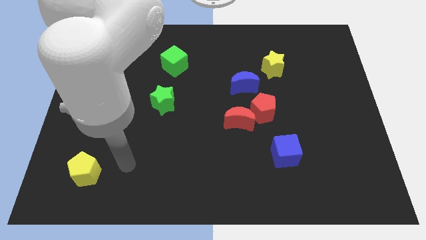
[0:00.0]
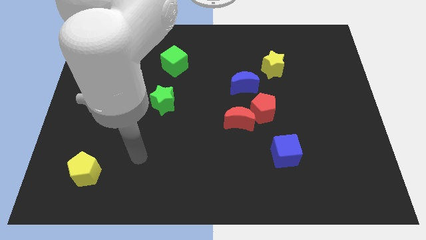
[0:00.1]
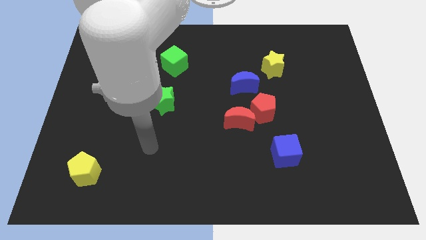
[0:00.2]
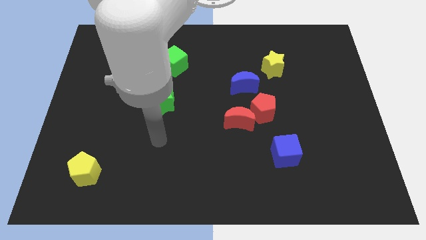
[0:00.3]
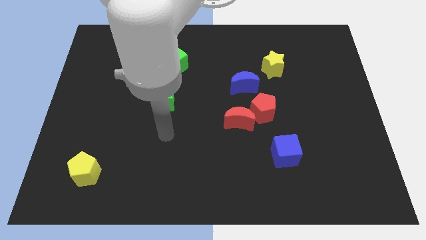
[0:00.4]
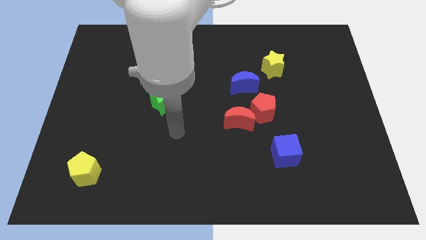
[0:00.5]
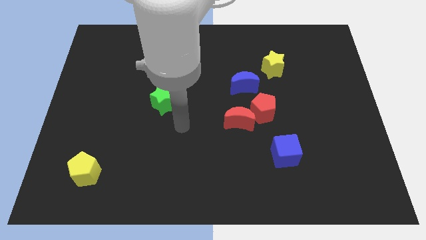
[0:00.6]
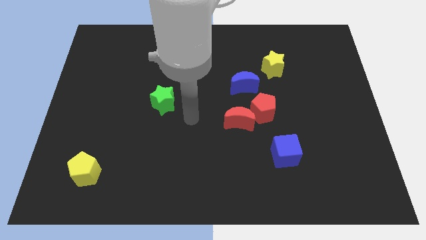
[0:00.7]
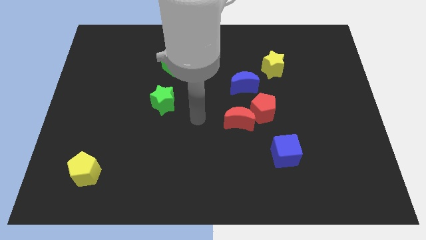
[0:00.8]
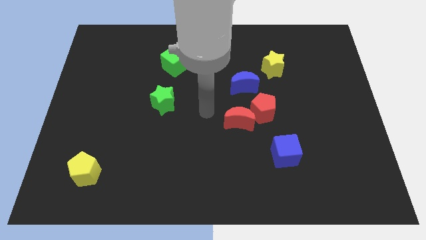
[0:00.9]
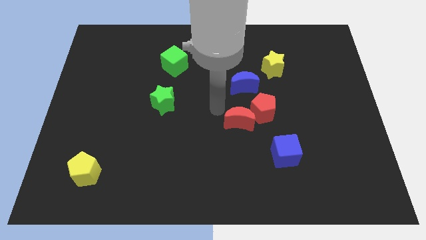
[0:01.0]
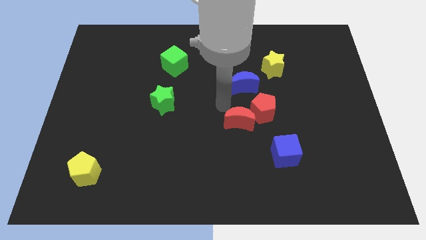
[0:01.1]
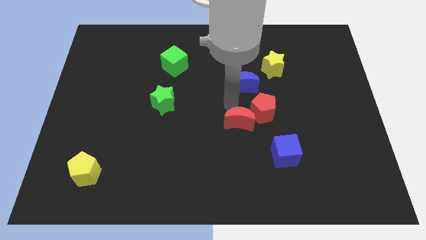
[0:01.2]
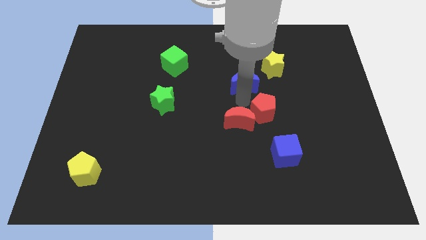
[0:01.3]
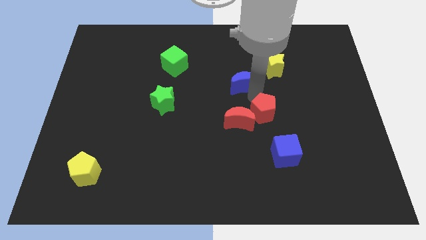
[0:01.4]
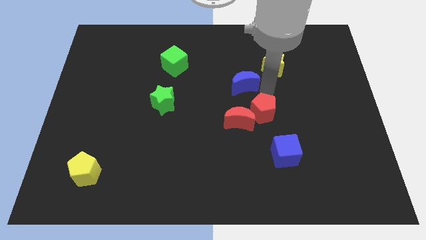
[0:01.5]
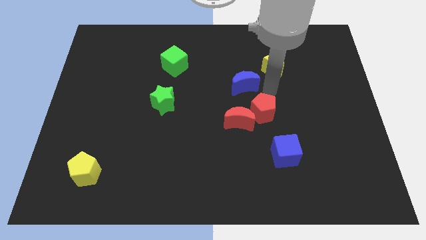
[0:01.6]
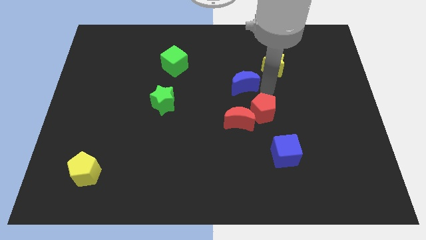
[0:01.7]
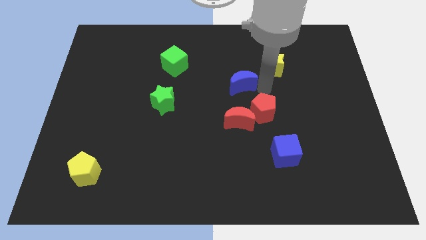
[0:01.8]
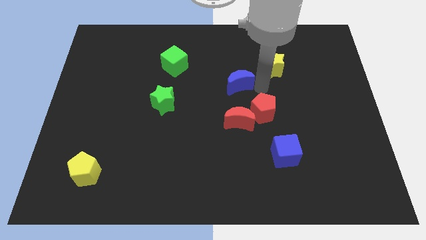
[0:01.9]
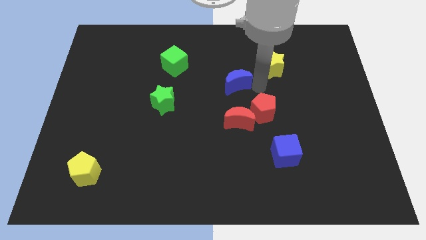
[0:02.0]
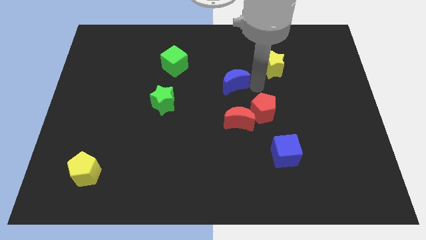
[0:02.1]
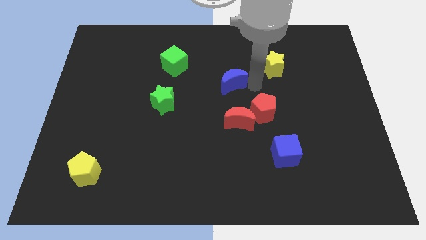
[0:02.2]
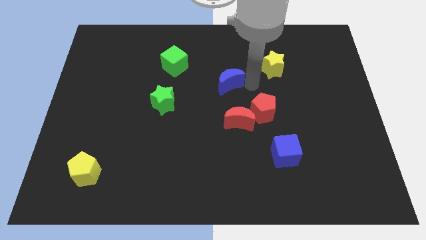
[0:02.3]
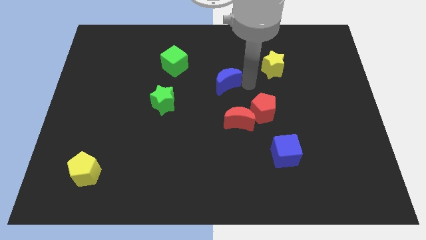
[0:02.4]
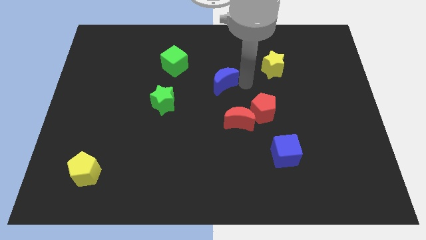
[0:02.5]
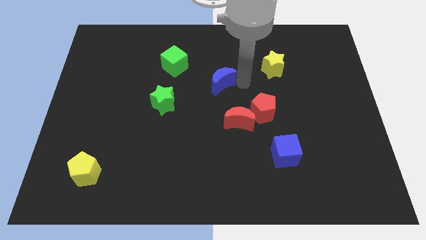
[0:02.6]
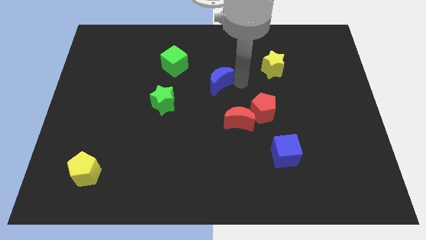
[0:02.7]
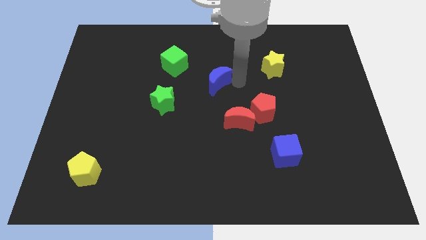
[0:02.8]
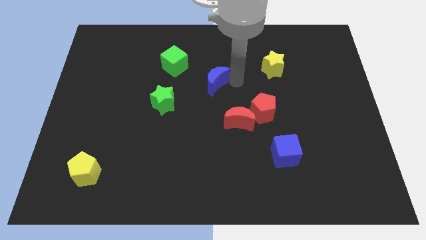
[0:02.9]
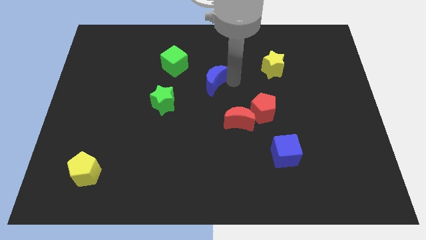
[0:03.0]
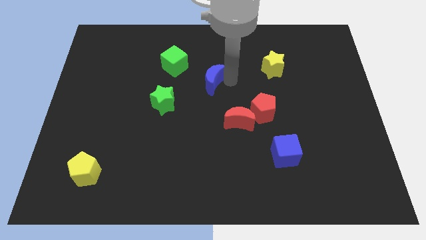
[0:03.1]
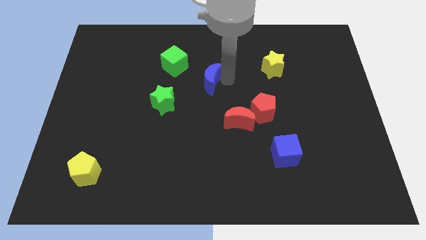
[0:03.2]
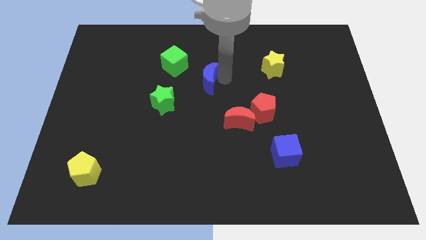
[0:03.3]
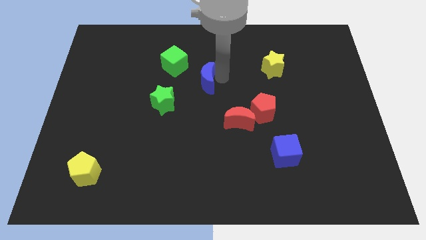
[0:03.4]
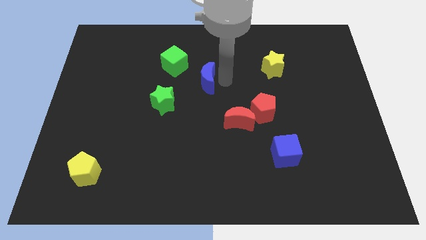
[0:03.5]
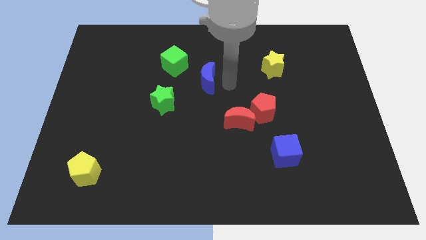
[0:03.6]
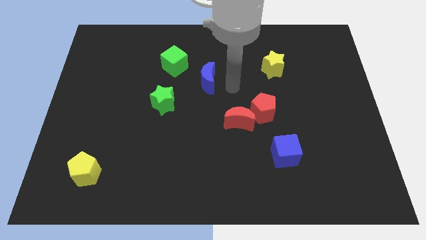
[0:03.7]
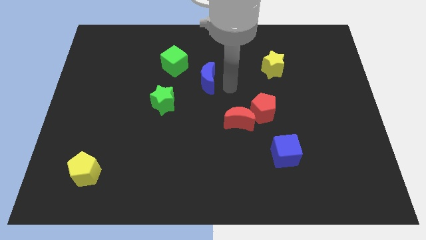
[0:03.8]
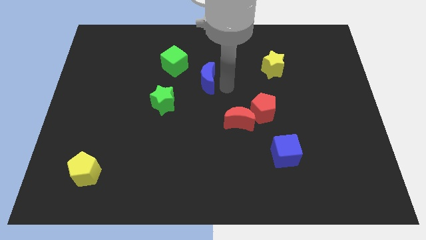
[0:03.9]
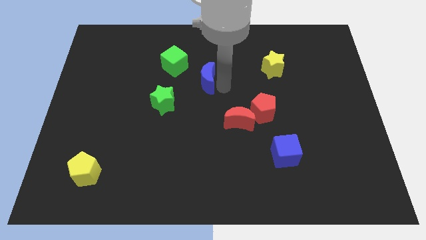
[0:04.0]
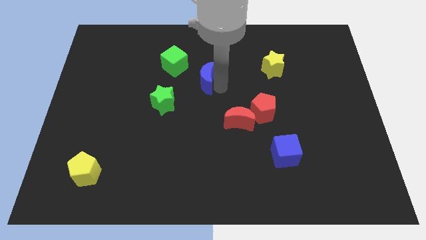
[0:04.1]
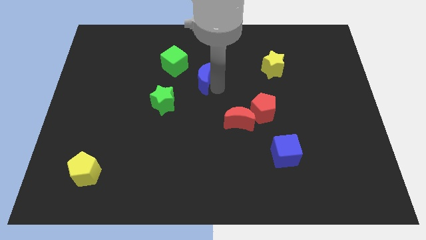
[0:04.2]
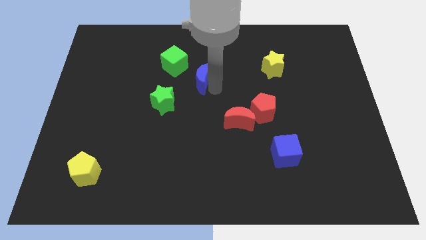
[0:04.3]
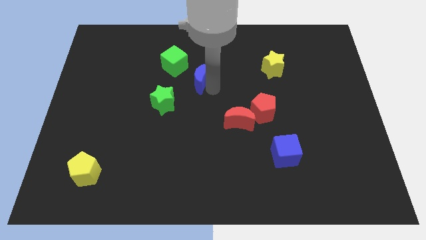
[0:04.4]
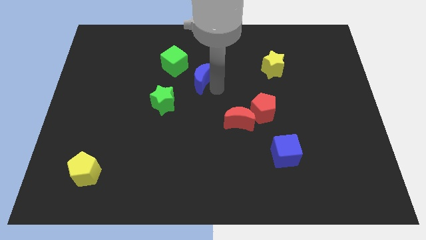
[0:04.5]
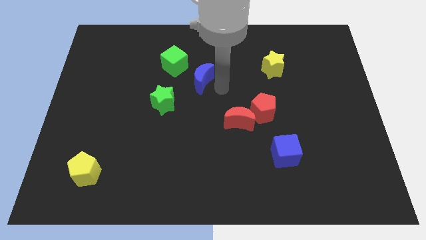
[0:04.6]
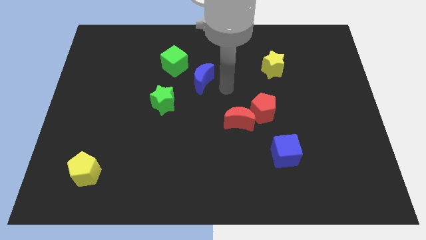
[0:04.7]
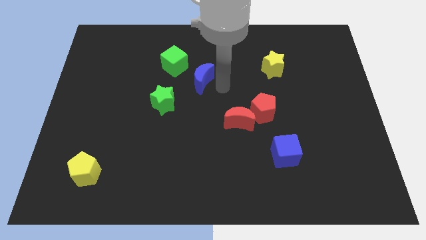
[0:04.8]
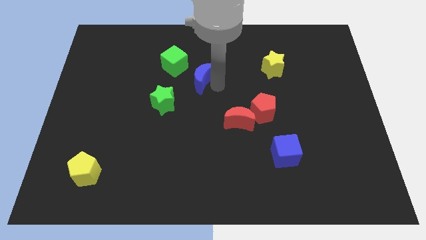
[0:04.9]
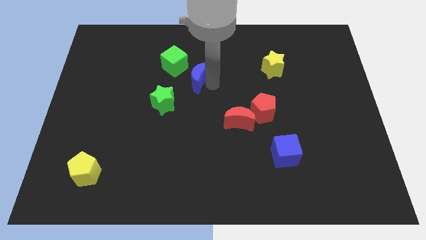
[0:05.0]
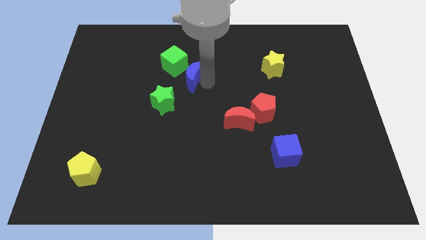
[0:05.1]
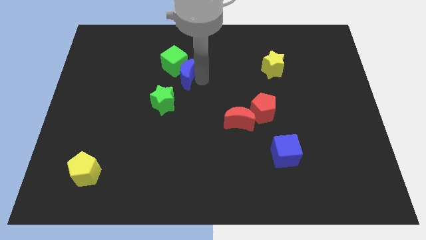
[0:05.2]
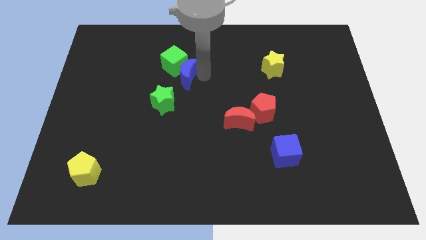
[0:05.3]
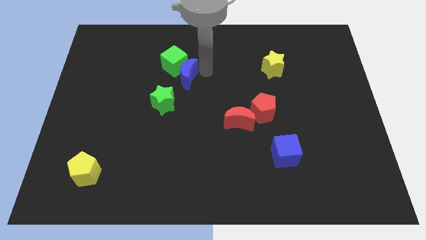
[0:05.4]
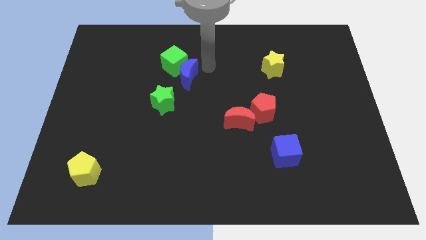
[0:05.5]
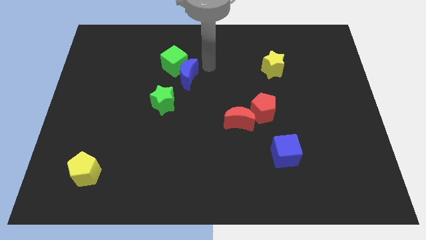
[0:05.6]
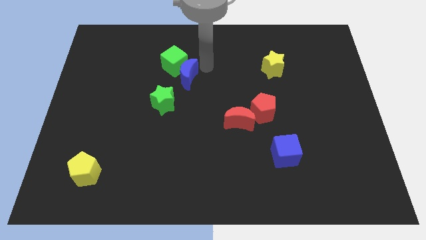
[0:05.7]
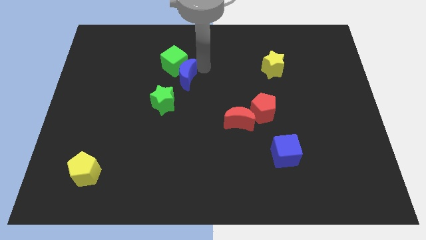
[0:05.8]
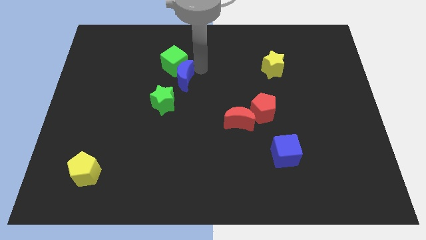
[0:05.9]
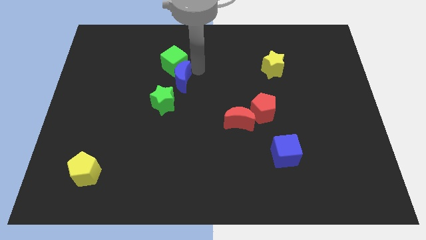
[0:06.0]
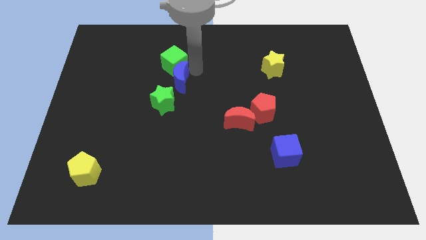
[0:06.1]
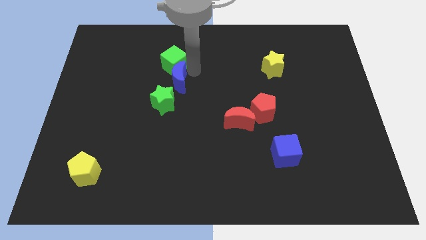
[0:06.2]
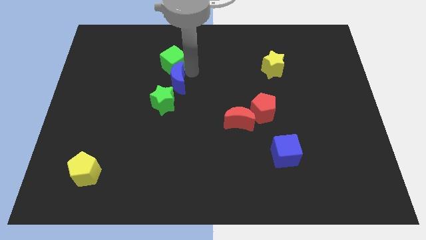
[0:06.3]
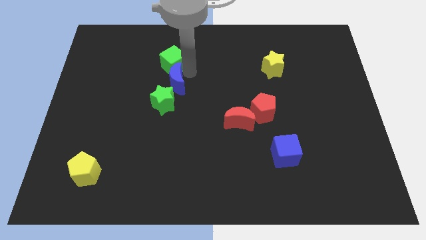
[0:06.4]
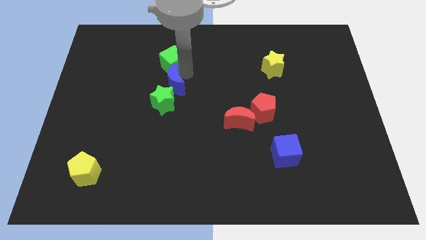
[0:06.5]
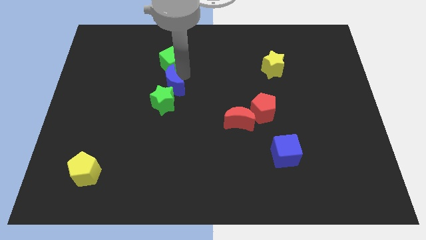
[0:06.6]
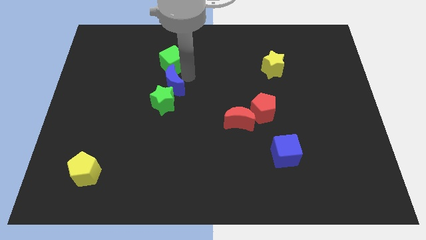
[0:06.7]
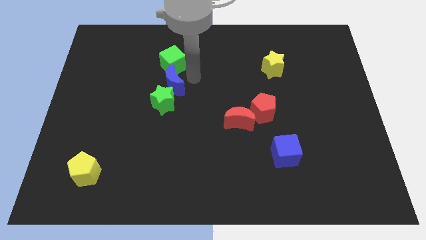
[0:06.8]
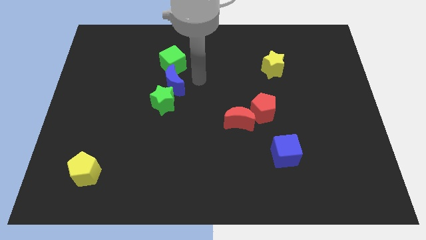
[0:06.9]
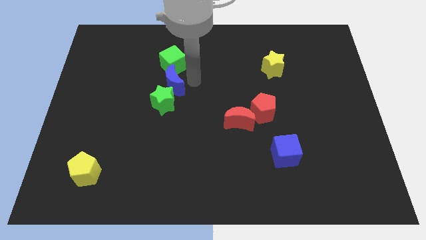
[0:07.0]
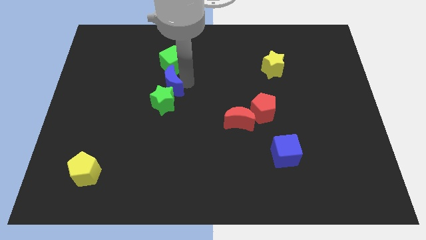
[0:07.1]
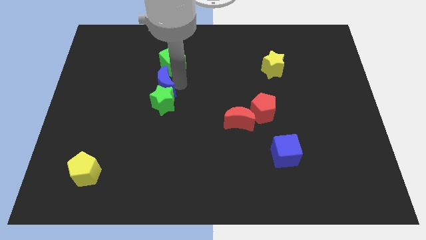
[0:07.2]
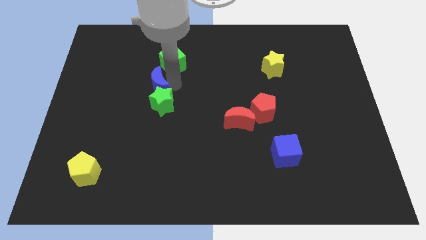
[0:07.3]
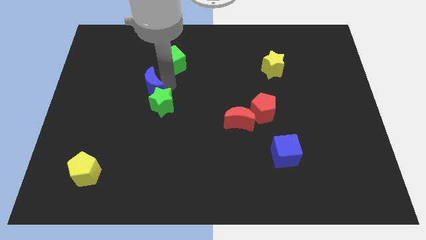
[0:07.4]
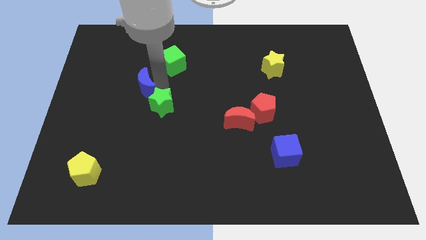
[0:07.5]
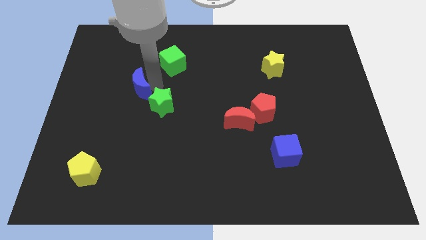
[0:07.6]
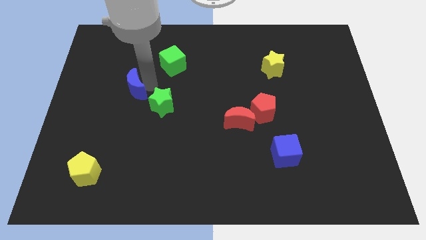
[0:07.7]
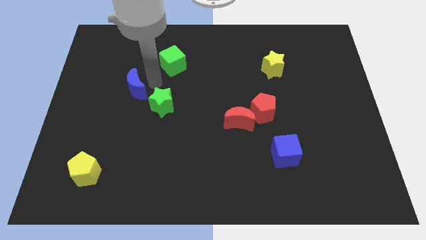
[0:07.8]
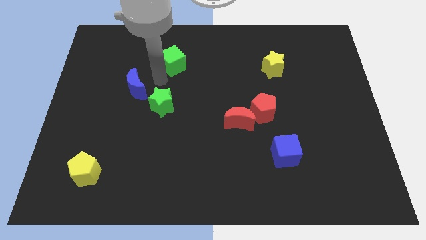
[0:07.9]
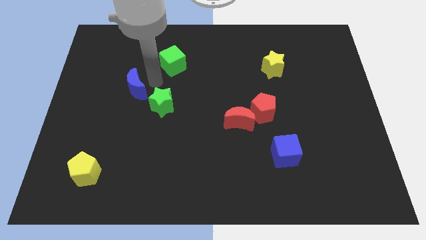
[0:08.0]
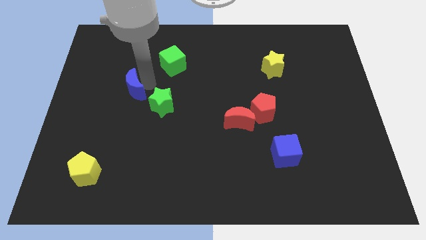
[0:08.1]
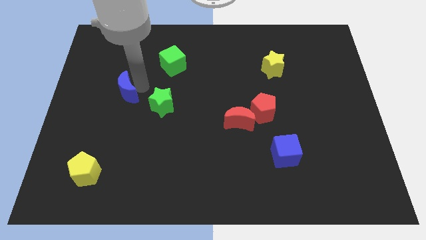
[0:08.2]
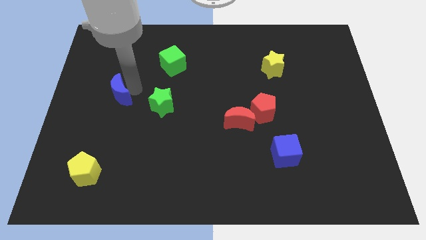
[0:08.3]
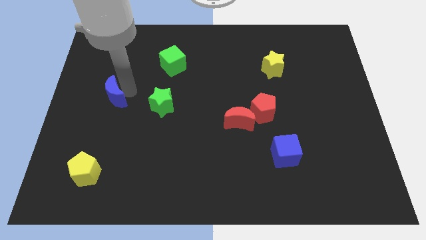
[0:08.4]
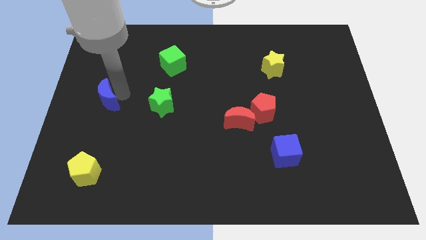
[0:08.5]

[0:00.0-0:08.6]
move the blue moon to the left side of the board
